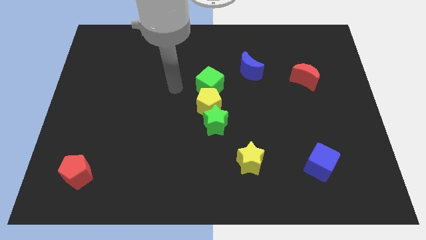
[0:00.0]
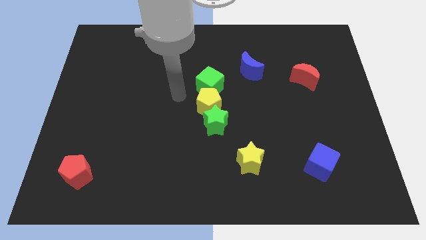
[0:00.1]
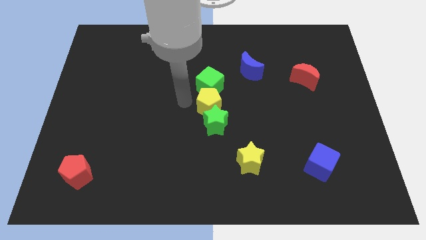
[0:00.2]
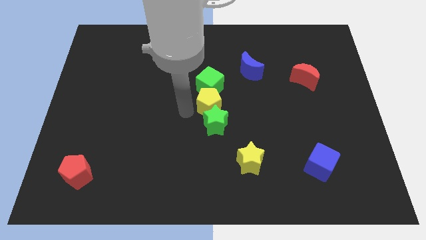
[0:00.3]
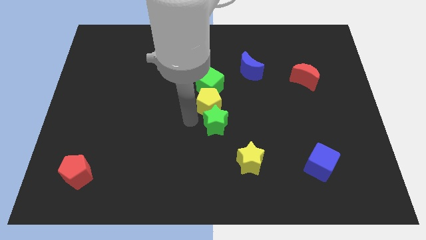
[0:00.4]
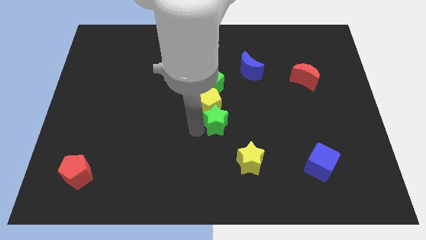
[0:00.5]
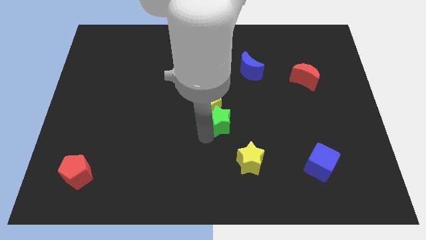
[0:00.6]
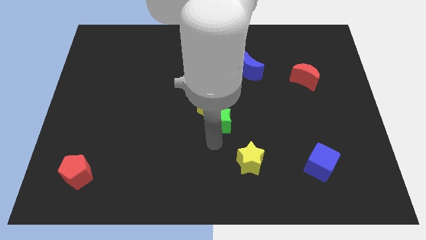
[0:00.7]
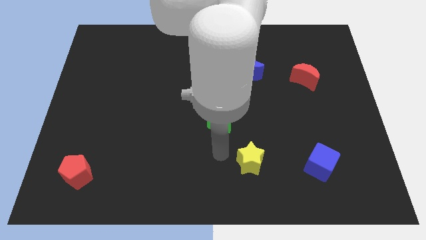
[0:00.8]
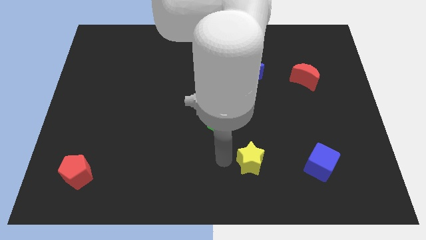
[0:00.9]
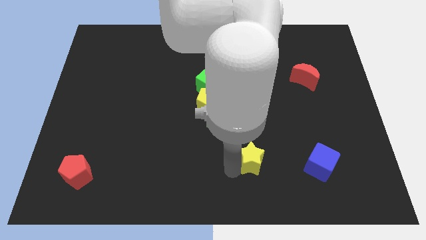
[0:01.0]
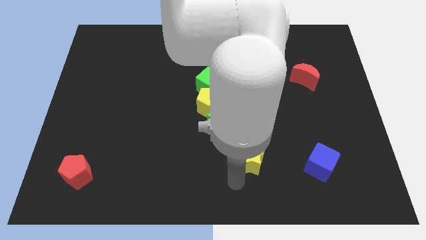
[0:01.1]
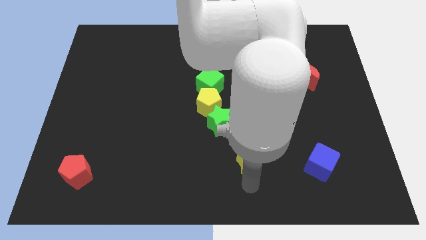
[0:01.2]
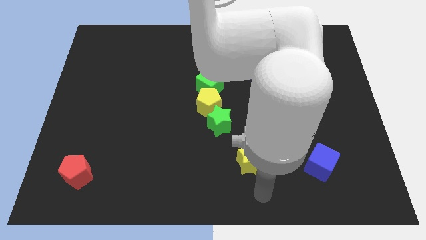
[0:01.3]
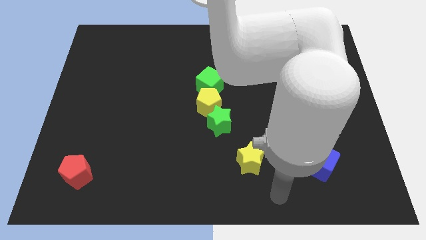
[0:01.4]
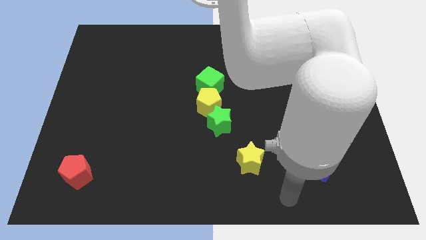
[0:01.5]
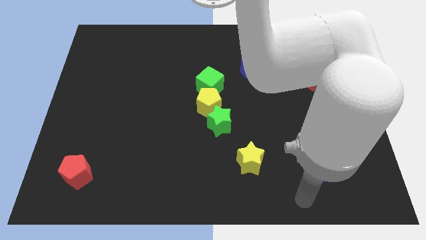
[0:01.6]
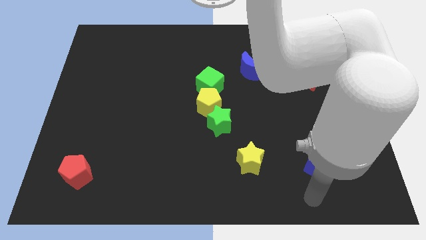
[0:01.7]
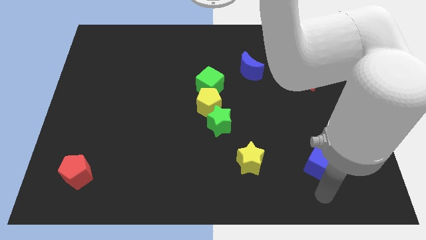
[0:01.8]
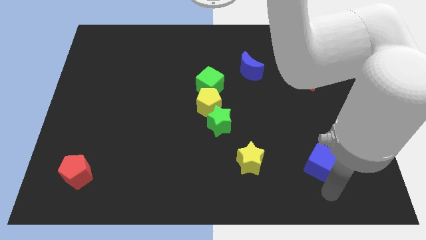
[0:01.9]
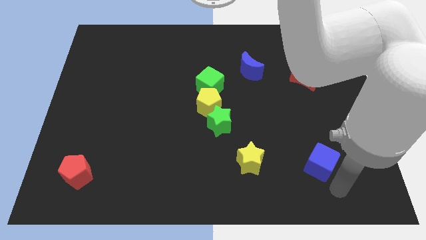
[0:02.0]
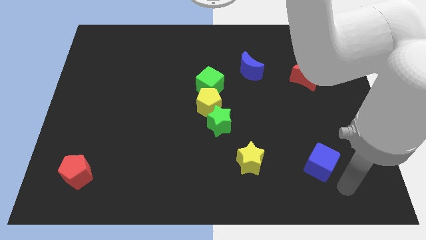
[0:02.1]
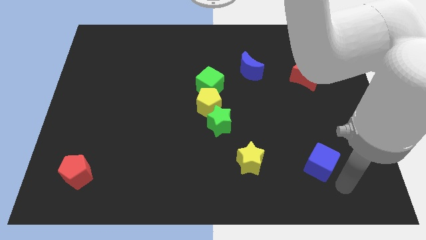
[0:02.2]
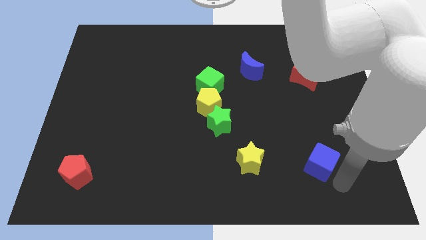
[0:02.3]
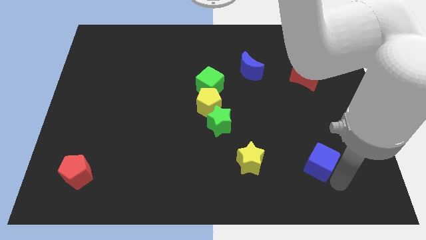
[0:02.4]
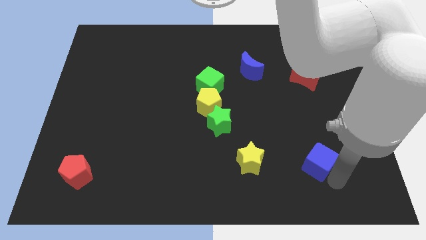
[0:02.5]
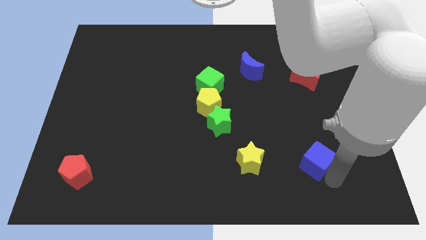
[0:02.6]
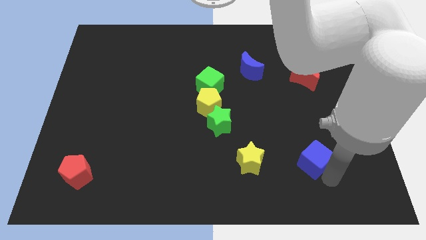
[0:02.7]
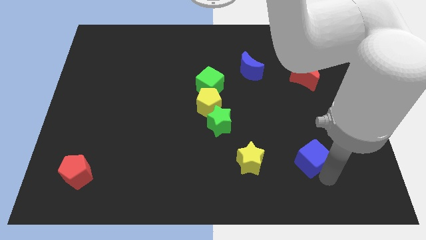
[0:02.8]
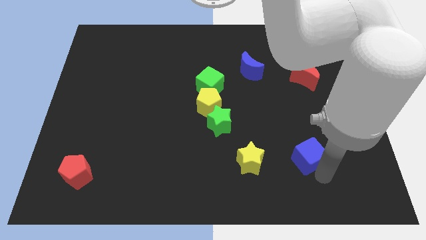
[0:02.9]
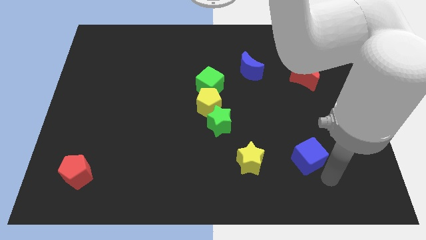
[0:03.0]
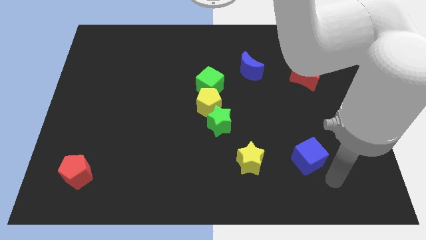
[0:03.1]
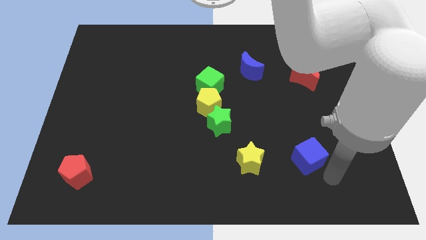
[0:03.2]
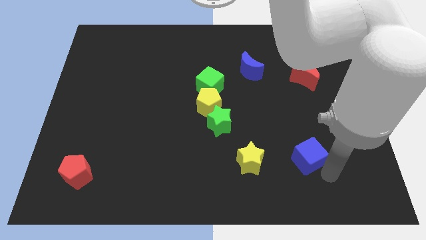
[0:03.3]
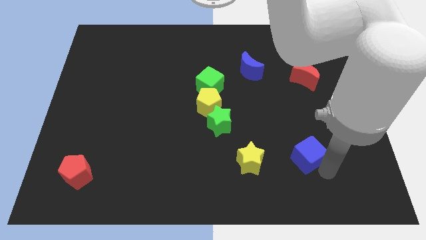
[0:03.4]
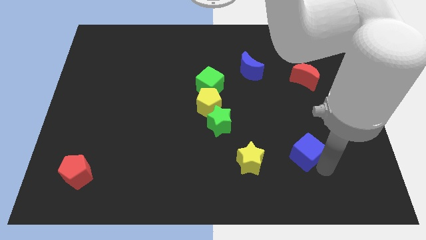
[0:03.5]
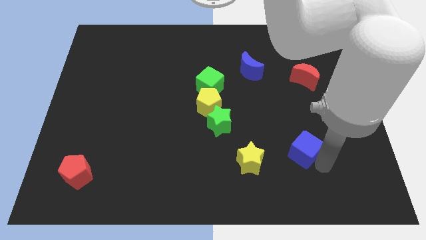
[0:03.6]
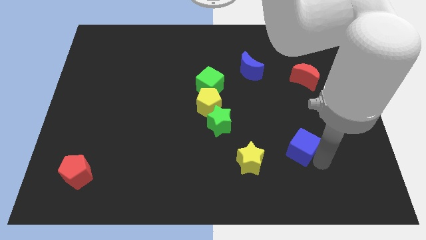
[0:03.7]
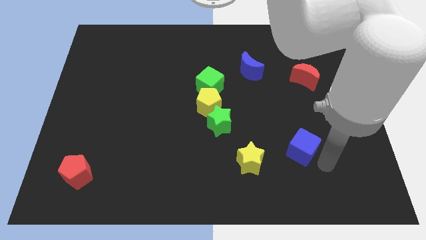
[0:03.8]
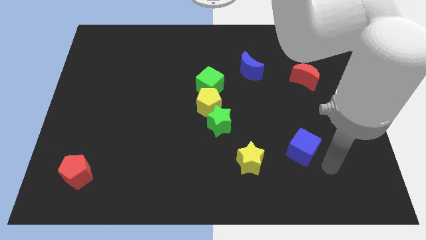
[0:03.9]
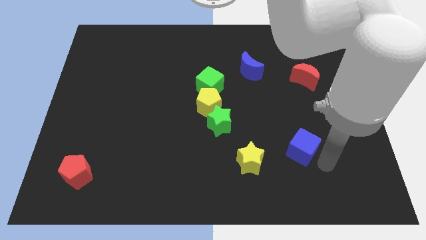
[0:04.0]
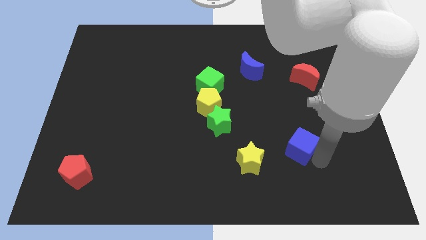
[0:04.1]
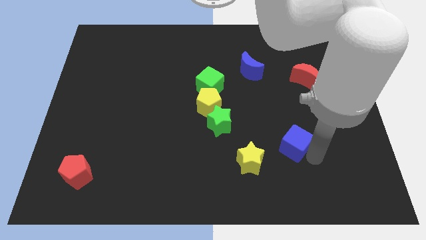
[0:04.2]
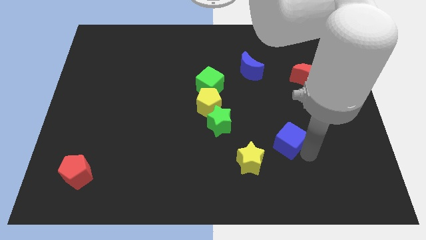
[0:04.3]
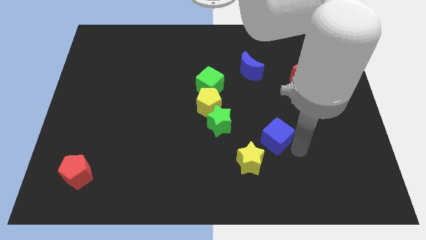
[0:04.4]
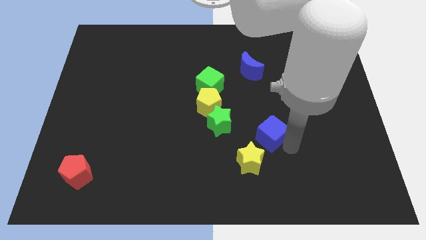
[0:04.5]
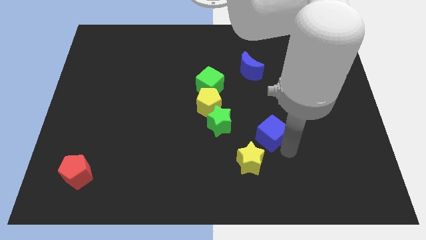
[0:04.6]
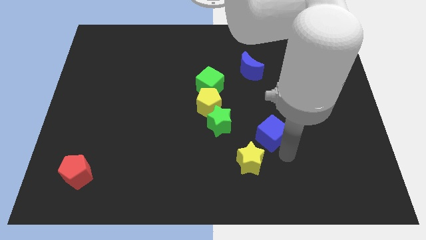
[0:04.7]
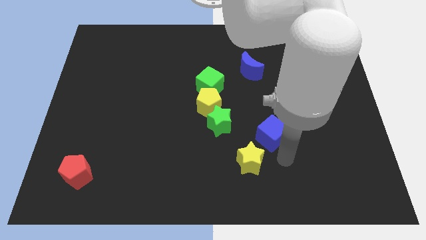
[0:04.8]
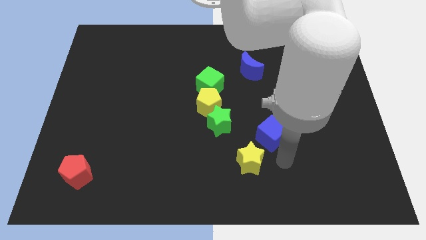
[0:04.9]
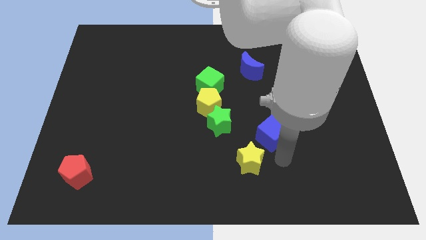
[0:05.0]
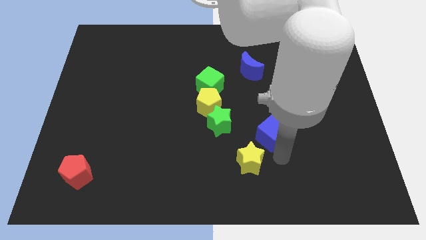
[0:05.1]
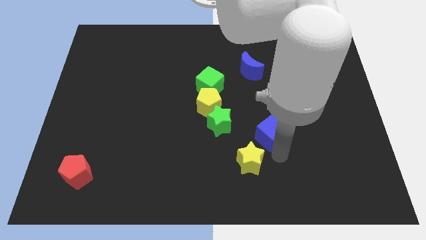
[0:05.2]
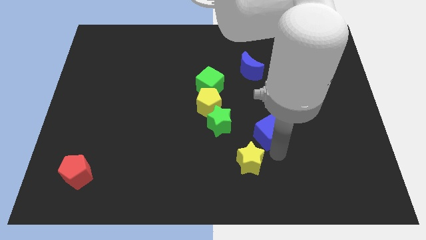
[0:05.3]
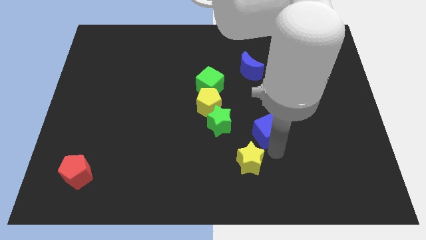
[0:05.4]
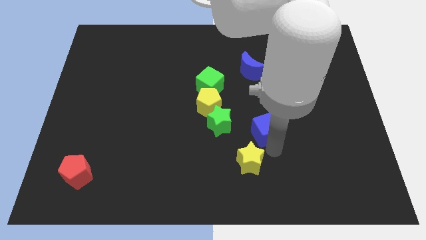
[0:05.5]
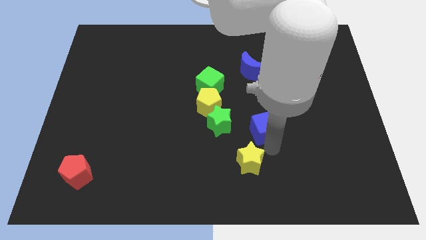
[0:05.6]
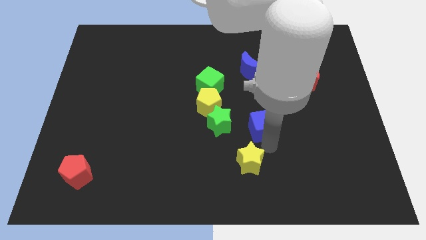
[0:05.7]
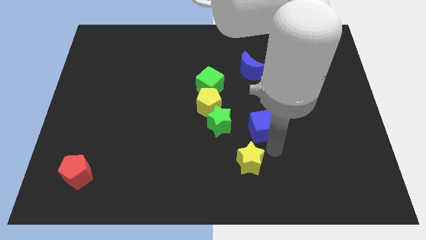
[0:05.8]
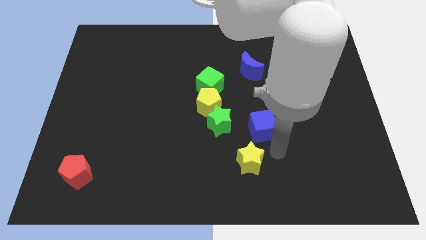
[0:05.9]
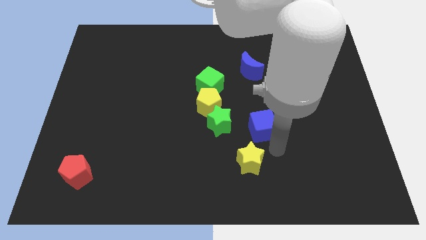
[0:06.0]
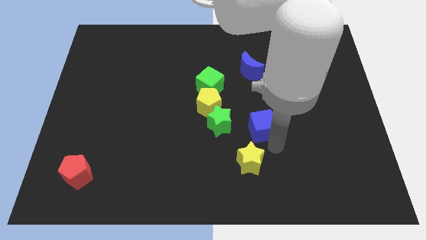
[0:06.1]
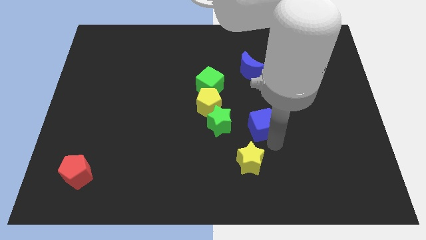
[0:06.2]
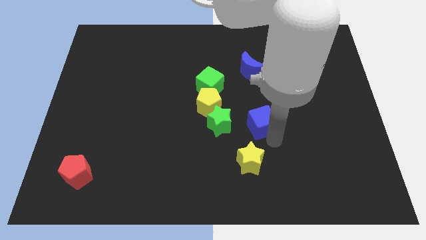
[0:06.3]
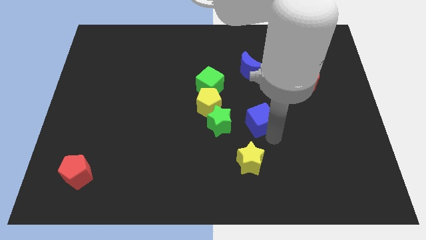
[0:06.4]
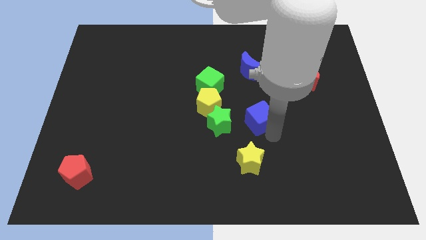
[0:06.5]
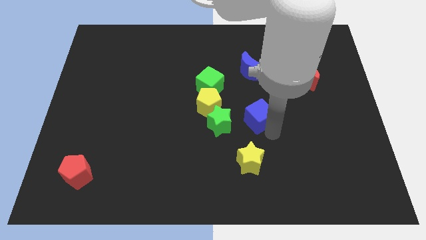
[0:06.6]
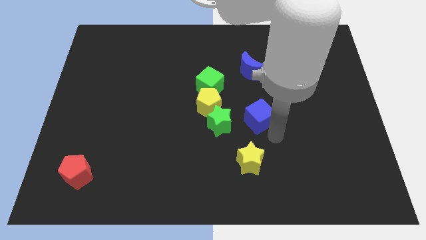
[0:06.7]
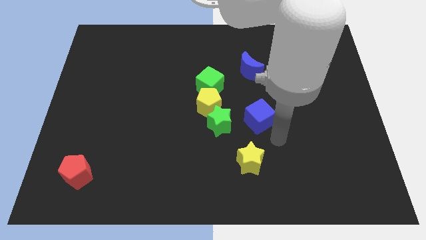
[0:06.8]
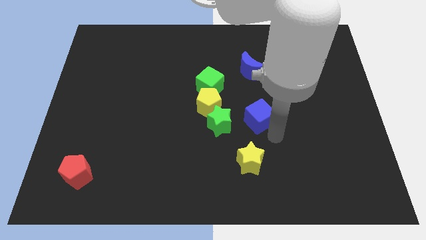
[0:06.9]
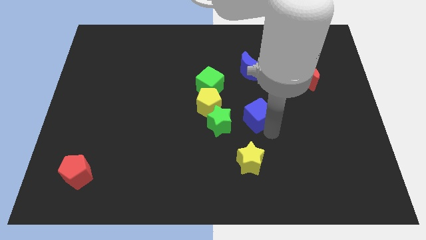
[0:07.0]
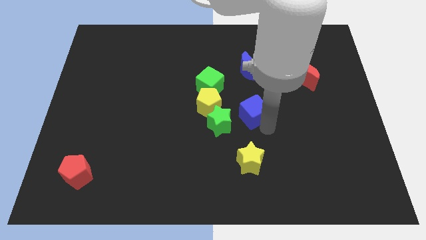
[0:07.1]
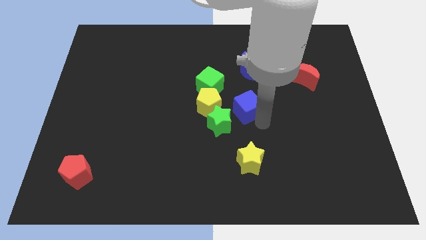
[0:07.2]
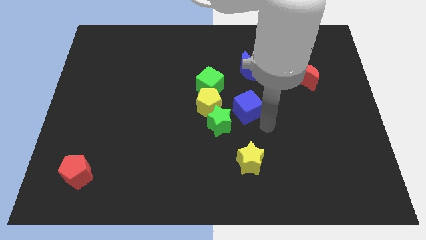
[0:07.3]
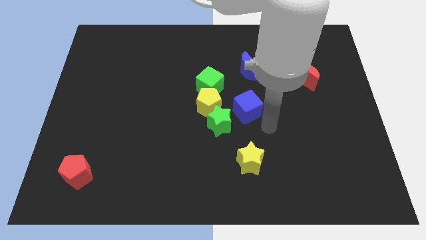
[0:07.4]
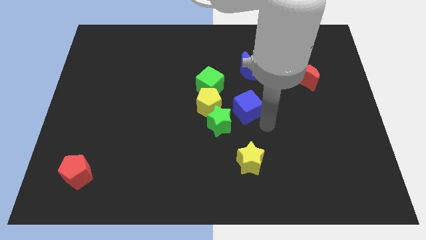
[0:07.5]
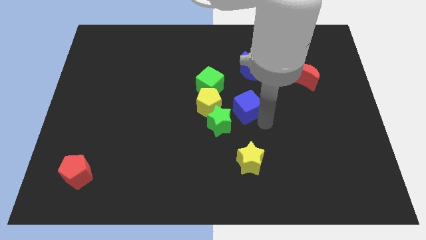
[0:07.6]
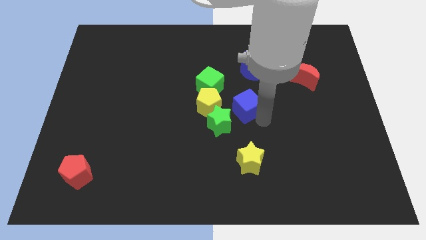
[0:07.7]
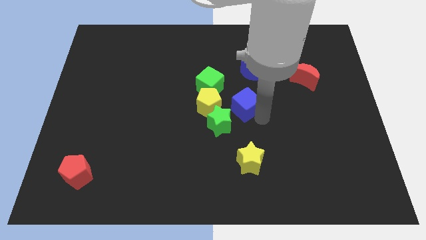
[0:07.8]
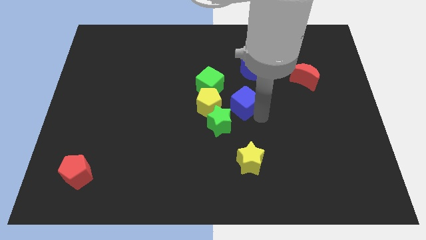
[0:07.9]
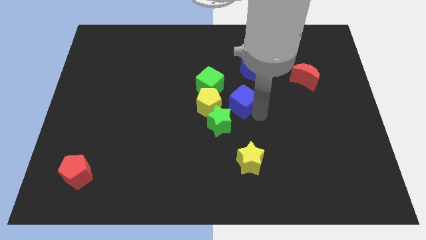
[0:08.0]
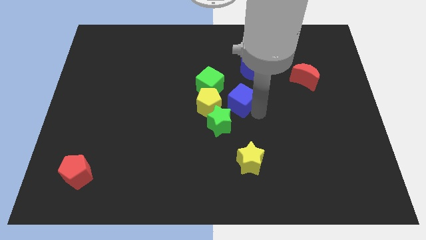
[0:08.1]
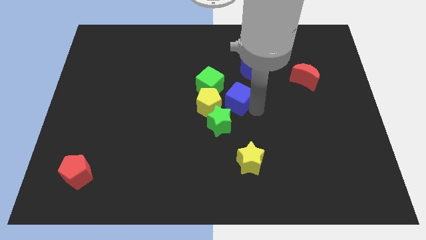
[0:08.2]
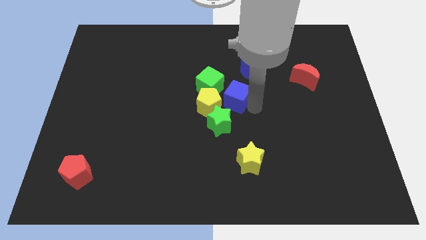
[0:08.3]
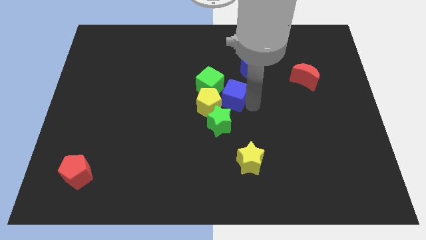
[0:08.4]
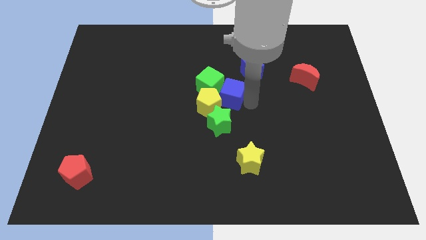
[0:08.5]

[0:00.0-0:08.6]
push the blue cube close to the yellow pentagon
